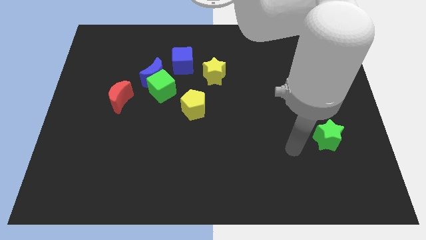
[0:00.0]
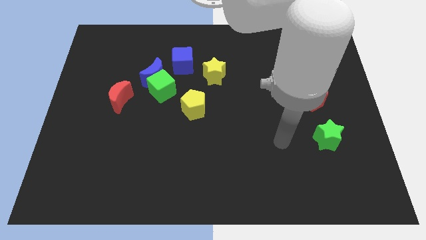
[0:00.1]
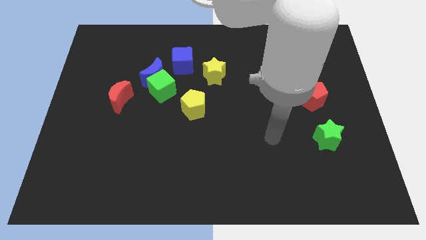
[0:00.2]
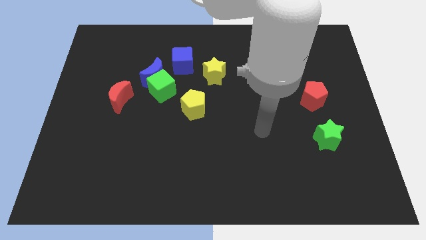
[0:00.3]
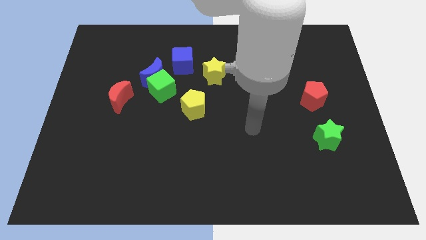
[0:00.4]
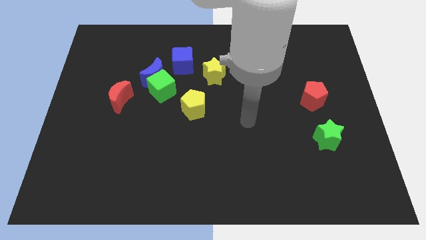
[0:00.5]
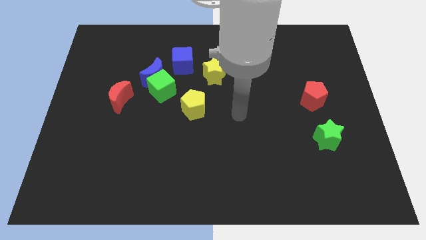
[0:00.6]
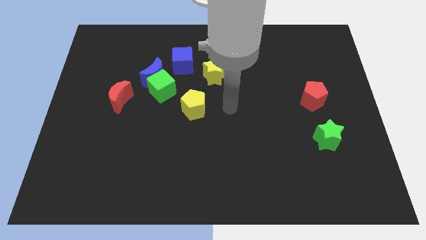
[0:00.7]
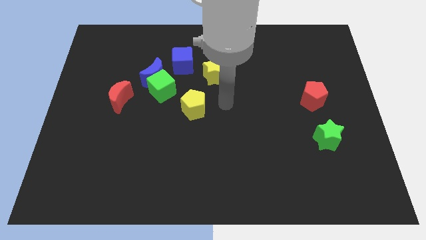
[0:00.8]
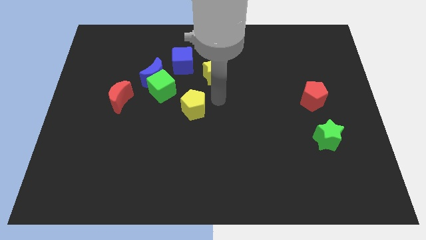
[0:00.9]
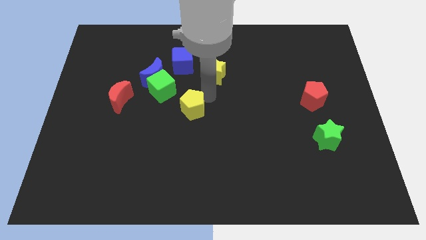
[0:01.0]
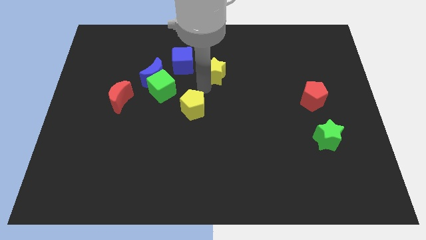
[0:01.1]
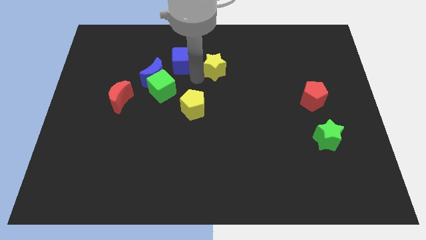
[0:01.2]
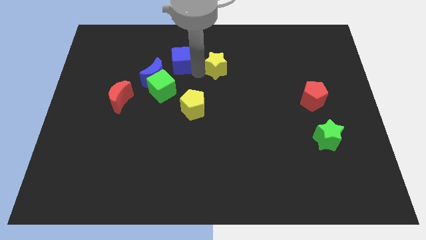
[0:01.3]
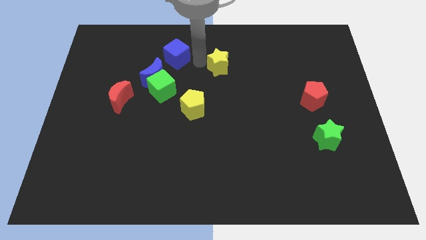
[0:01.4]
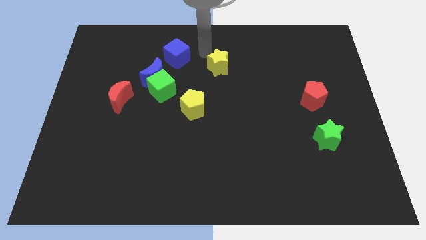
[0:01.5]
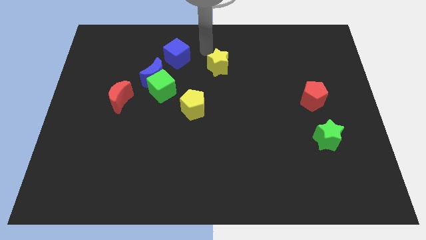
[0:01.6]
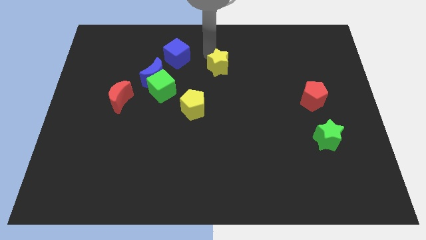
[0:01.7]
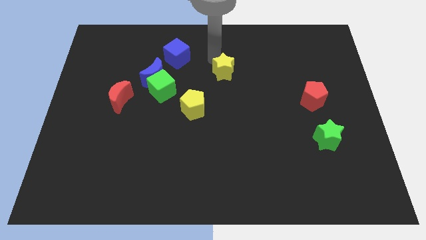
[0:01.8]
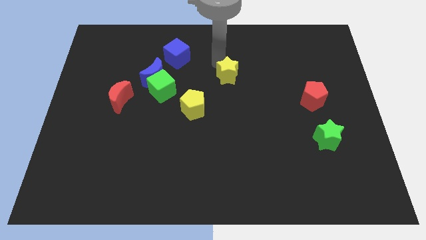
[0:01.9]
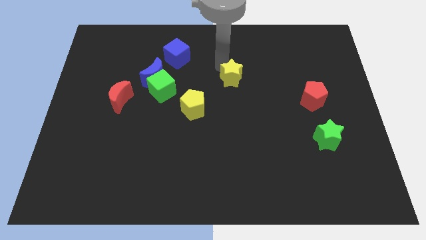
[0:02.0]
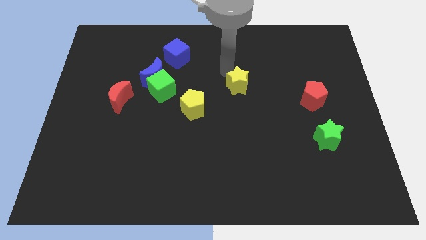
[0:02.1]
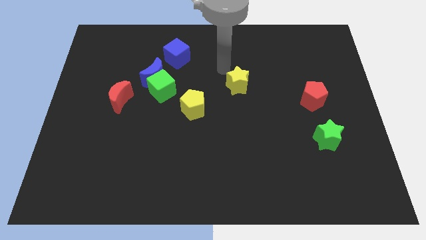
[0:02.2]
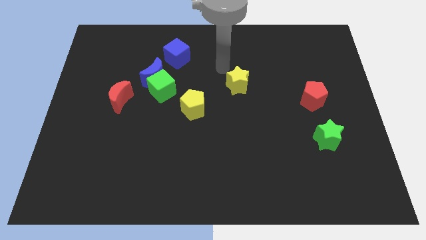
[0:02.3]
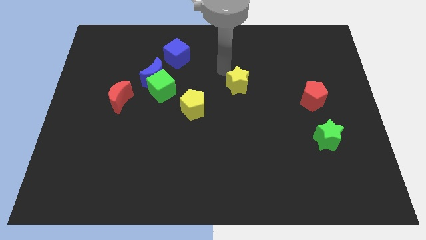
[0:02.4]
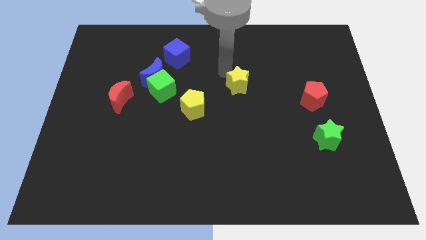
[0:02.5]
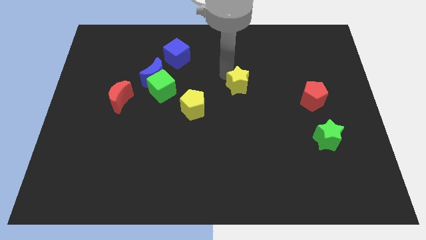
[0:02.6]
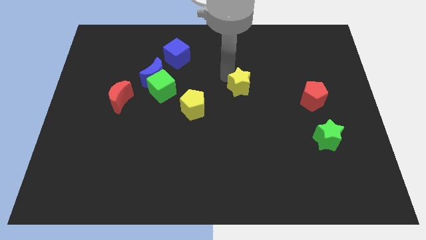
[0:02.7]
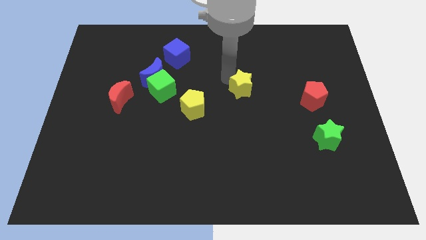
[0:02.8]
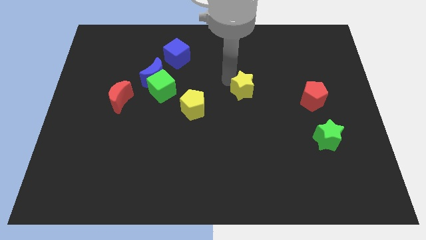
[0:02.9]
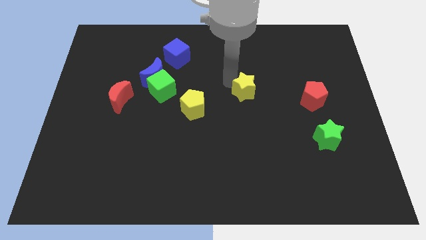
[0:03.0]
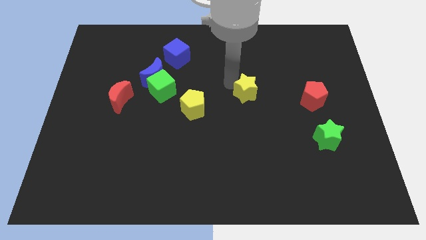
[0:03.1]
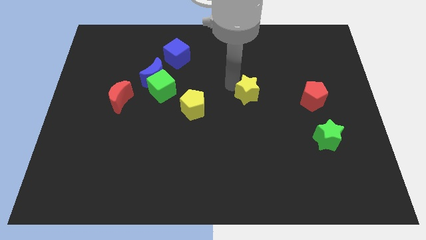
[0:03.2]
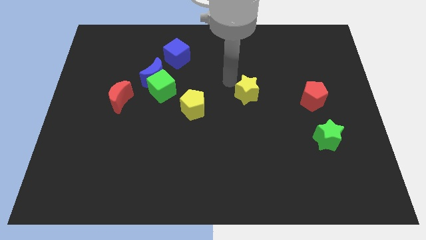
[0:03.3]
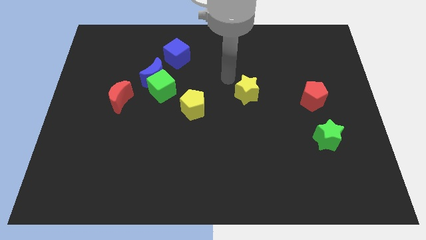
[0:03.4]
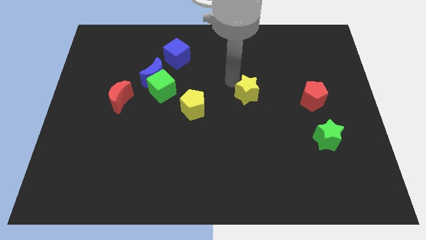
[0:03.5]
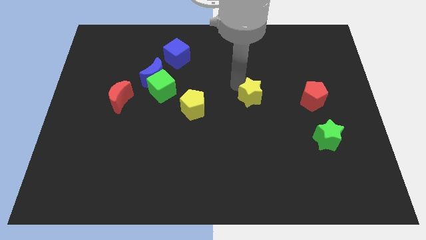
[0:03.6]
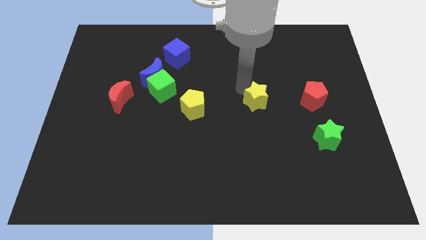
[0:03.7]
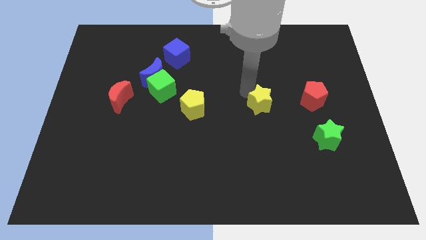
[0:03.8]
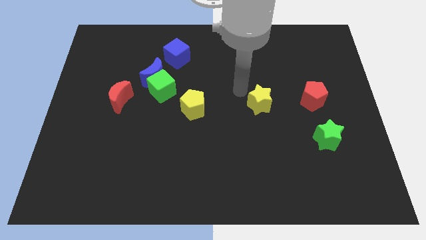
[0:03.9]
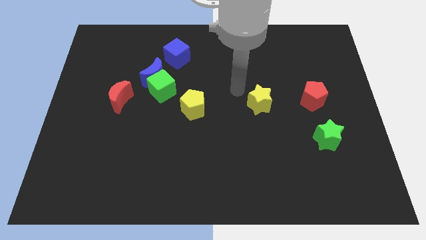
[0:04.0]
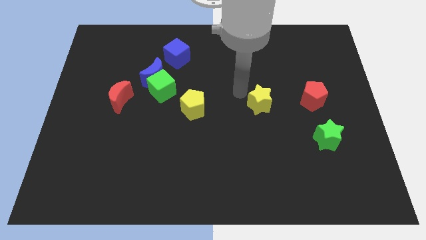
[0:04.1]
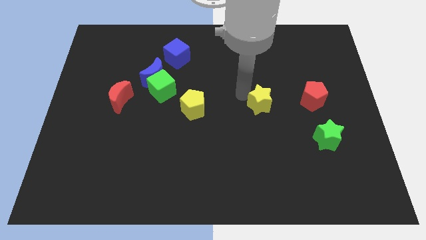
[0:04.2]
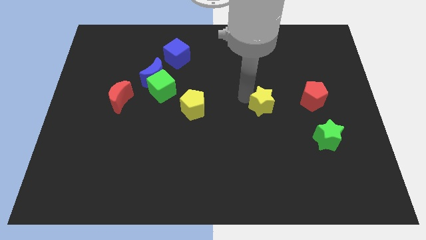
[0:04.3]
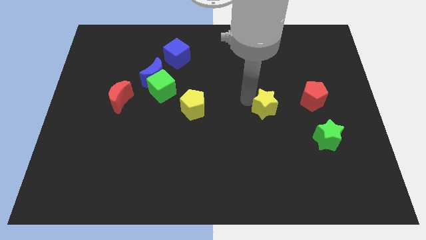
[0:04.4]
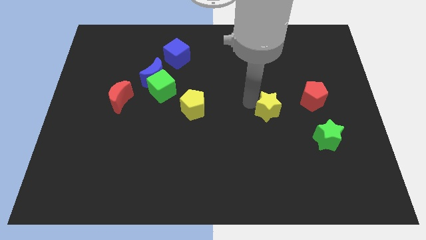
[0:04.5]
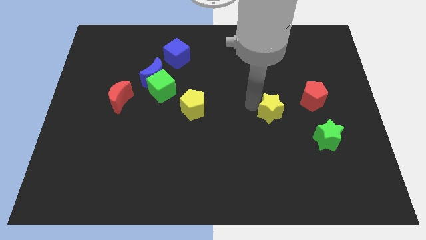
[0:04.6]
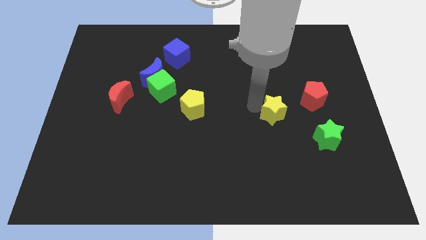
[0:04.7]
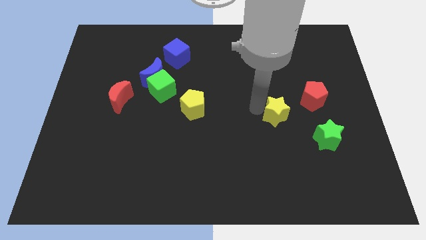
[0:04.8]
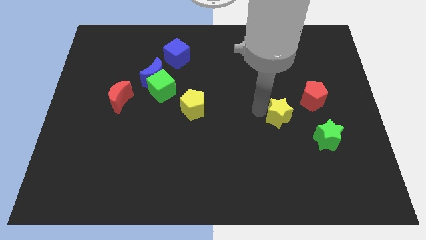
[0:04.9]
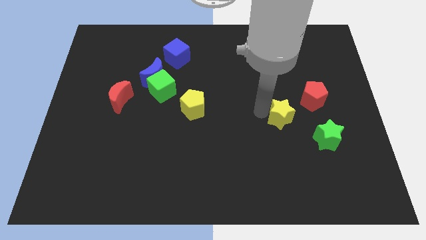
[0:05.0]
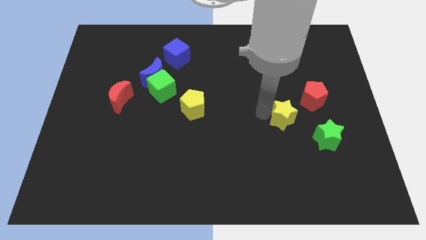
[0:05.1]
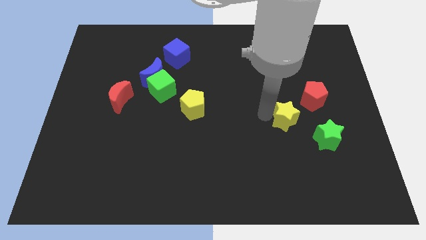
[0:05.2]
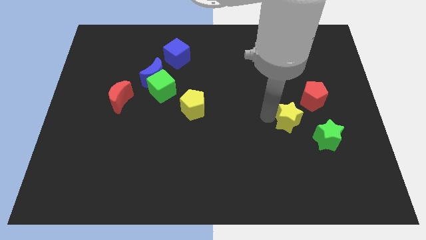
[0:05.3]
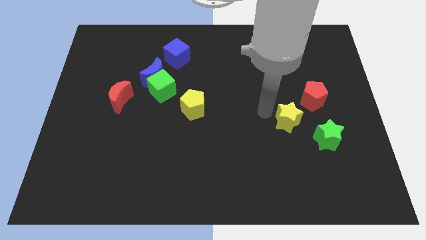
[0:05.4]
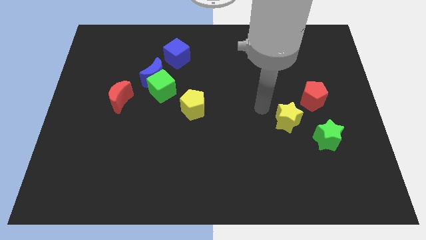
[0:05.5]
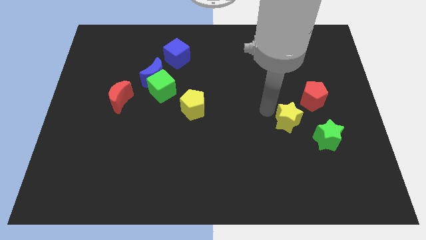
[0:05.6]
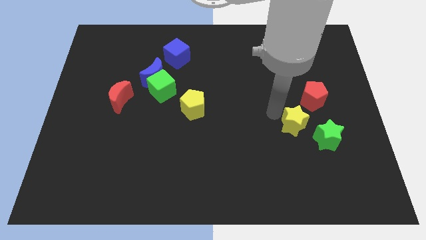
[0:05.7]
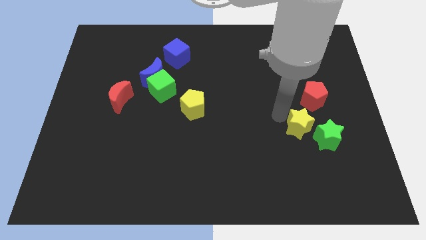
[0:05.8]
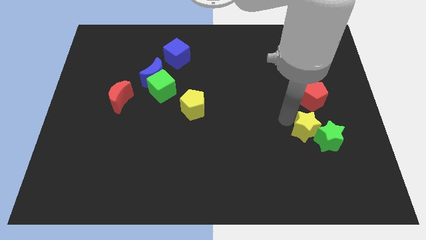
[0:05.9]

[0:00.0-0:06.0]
move the yellow star next to the green star

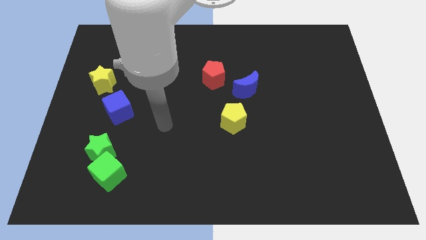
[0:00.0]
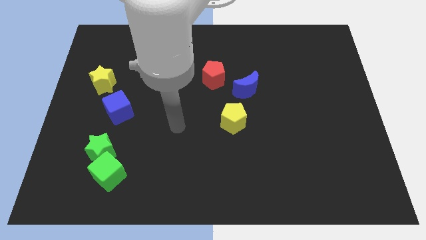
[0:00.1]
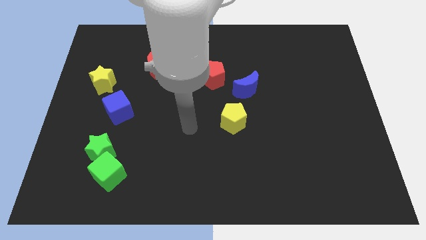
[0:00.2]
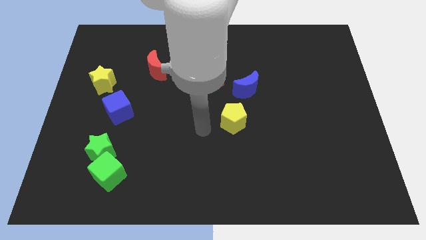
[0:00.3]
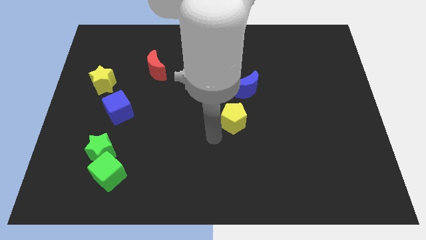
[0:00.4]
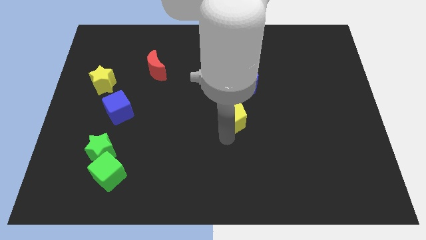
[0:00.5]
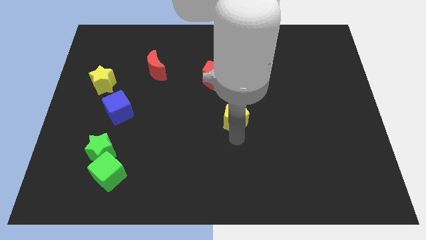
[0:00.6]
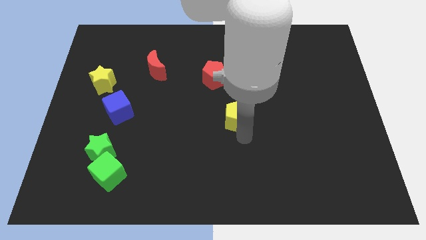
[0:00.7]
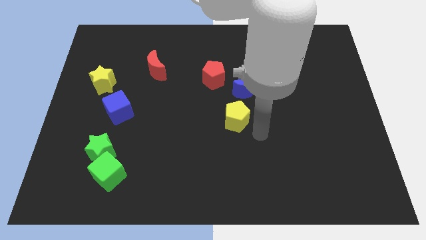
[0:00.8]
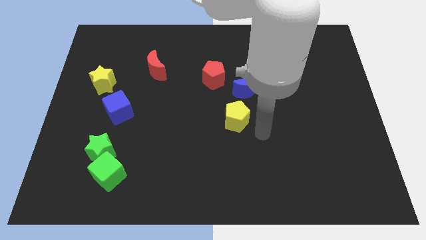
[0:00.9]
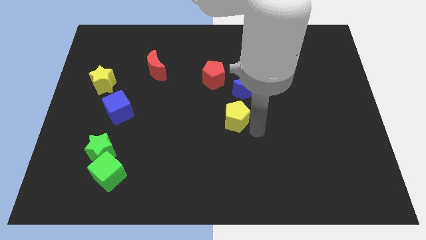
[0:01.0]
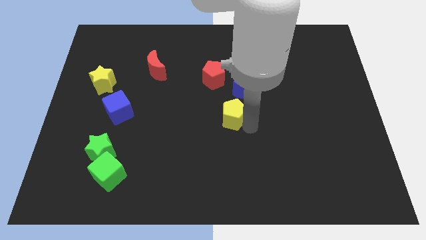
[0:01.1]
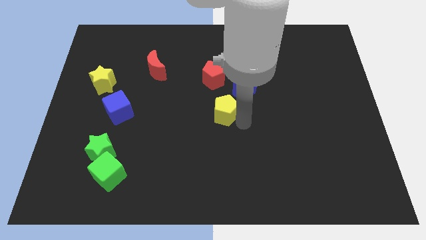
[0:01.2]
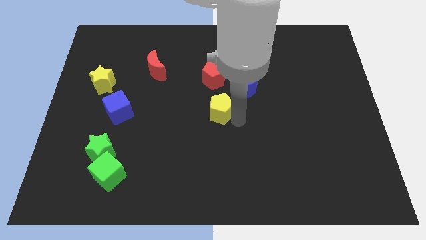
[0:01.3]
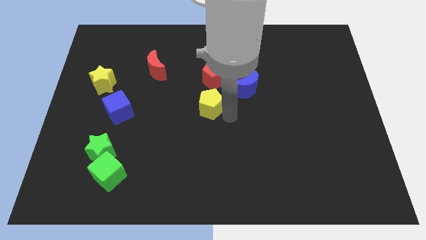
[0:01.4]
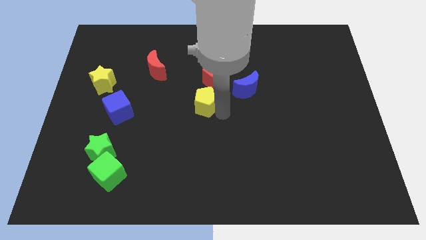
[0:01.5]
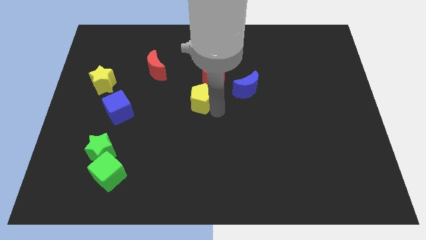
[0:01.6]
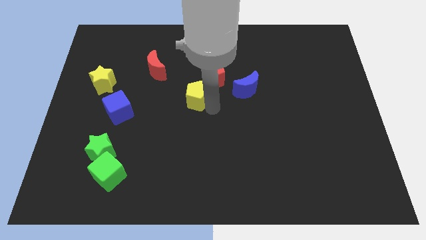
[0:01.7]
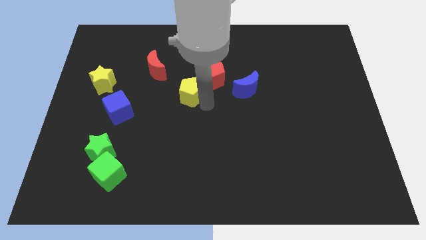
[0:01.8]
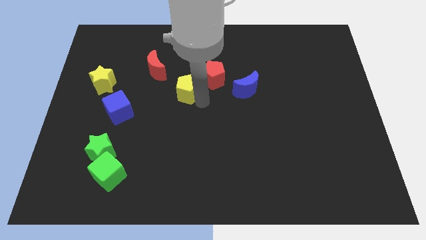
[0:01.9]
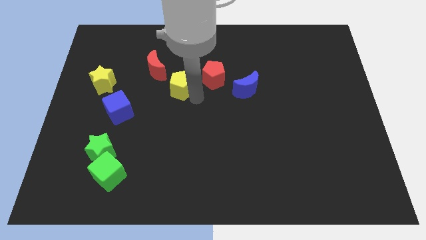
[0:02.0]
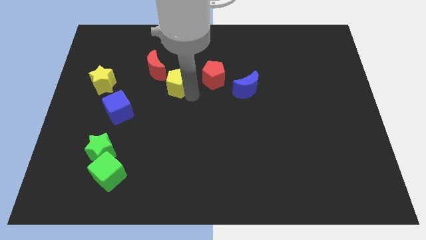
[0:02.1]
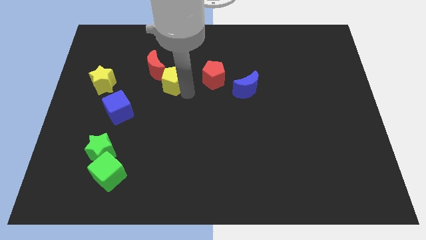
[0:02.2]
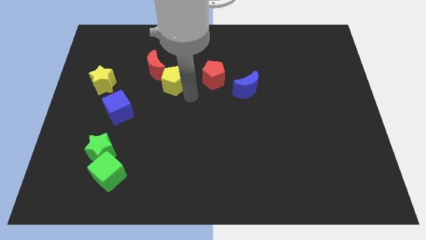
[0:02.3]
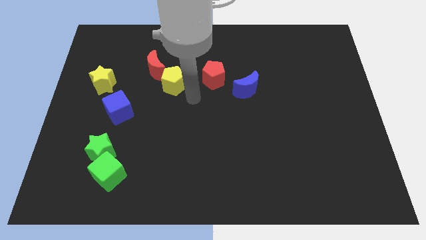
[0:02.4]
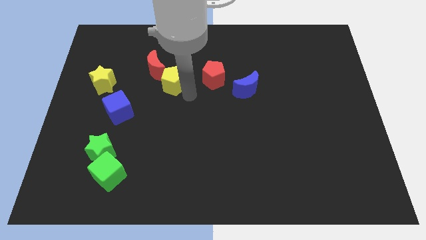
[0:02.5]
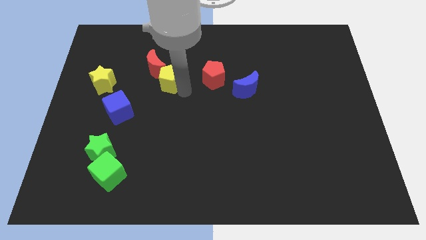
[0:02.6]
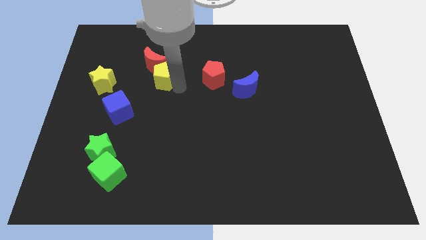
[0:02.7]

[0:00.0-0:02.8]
slide the yellow pentagon next to the red moon
